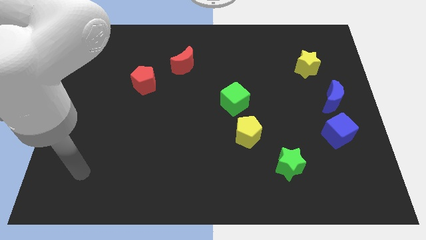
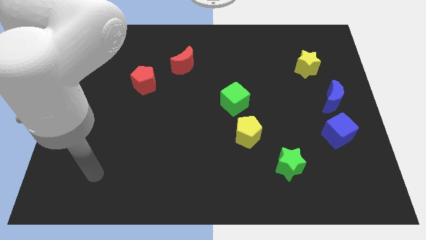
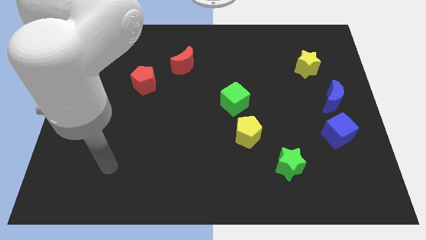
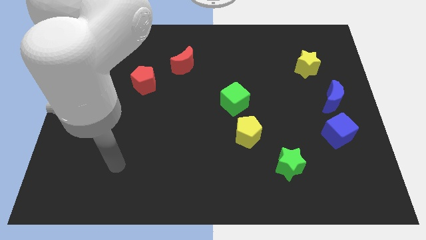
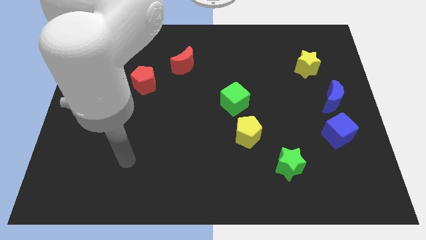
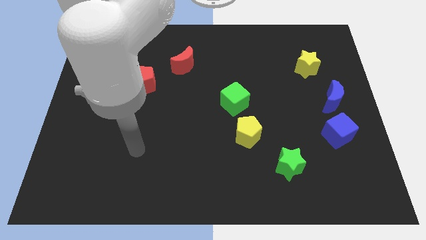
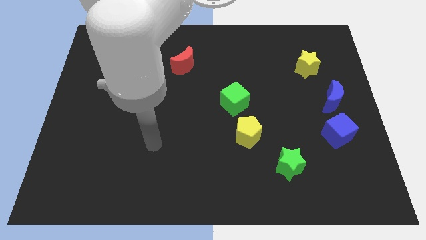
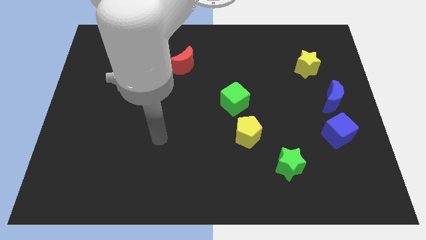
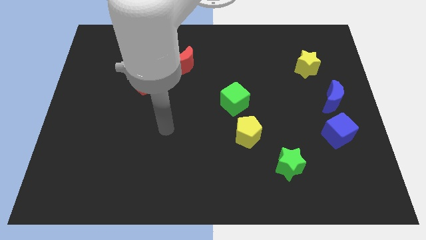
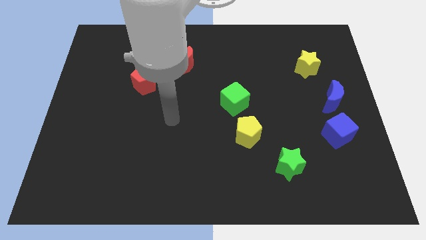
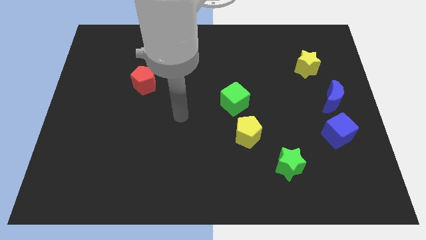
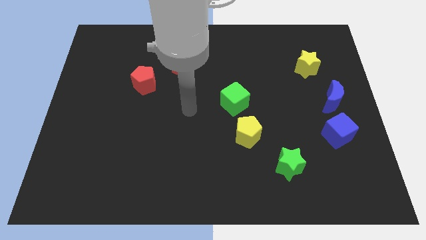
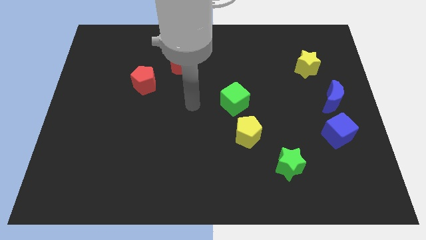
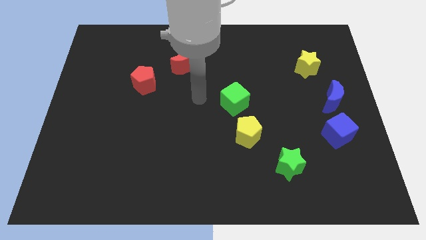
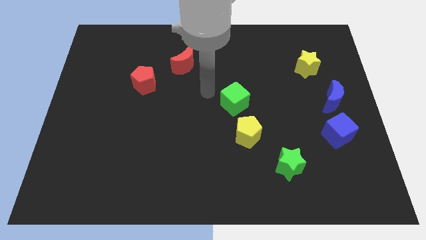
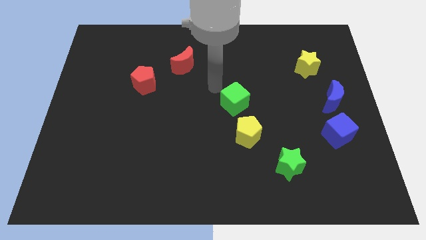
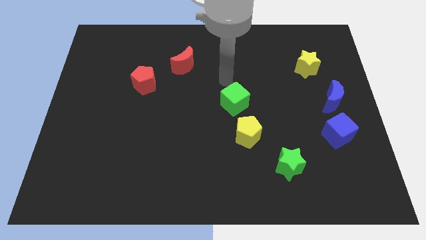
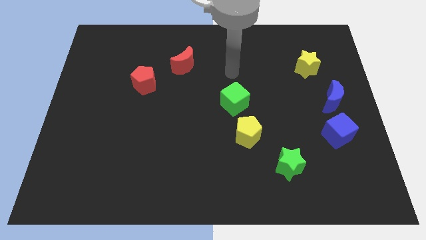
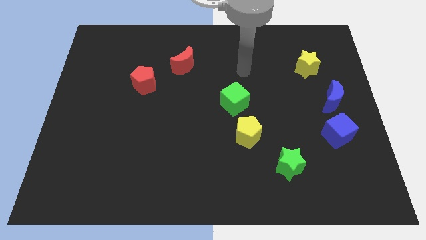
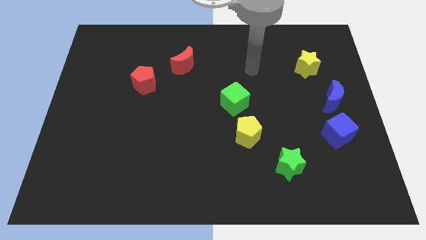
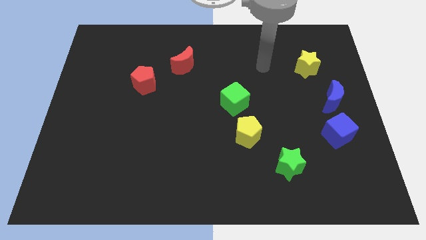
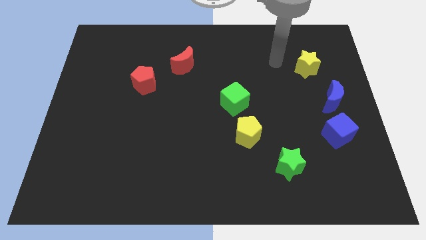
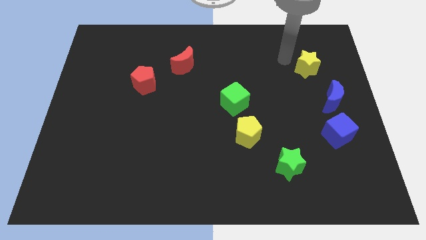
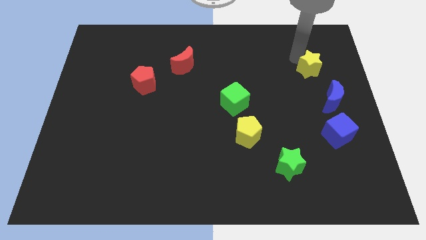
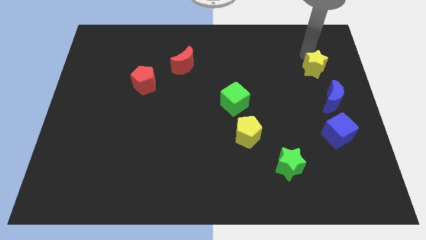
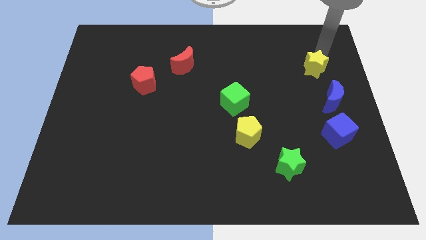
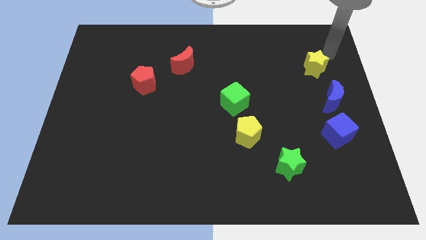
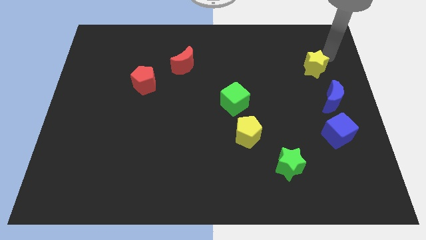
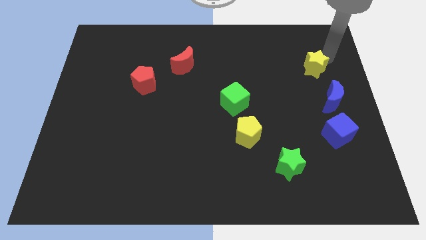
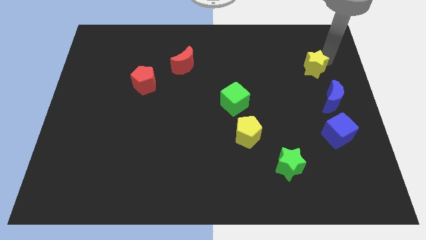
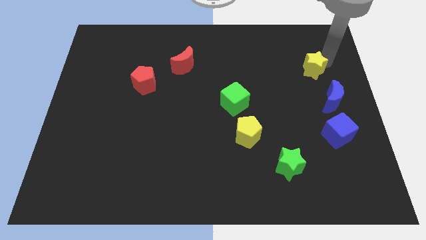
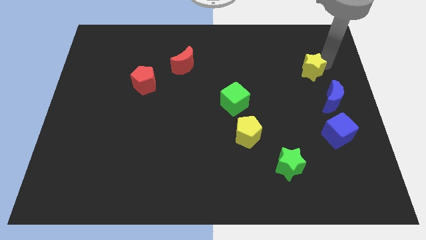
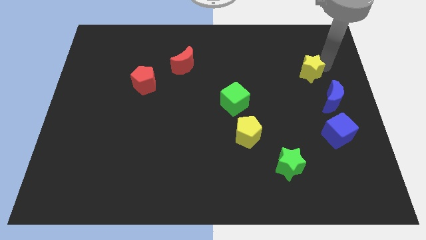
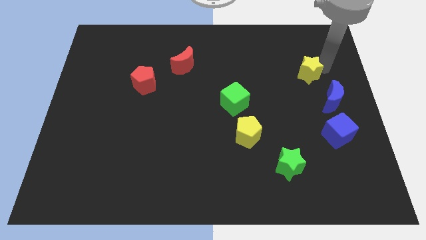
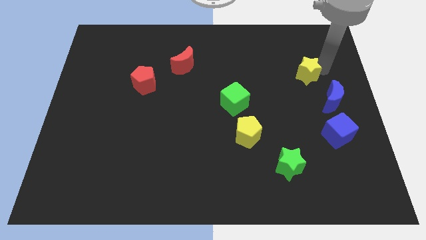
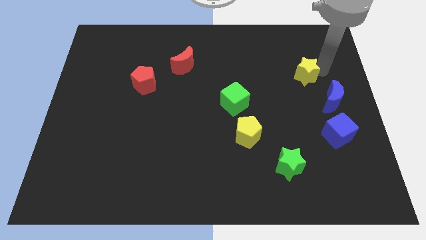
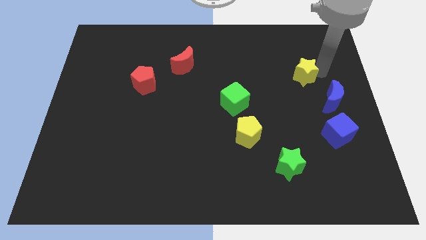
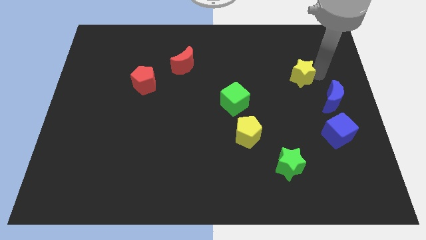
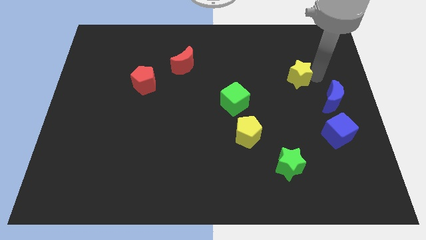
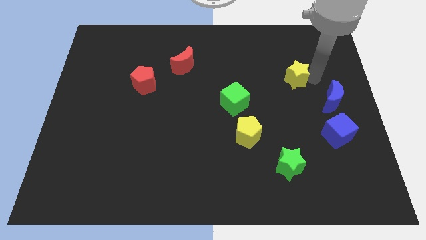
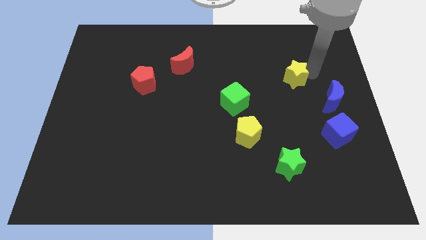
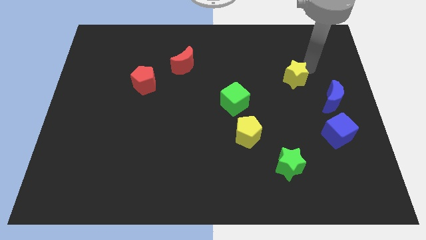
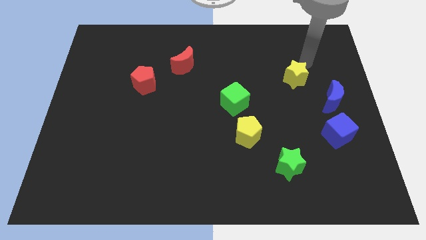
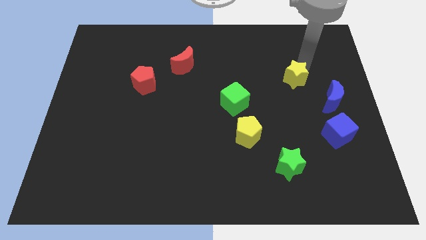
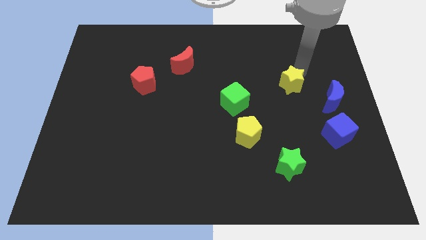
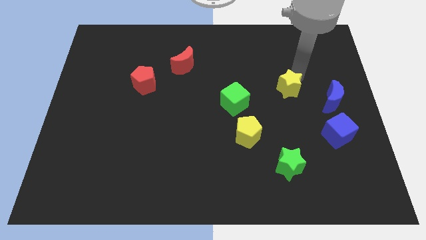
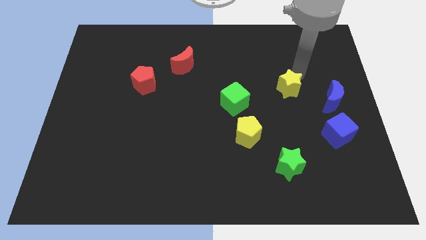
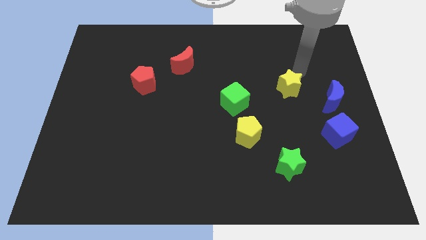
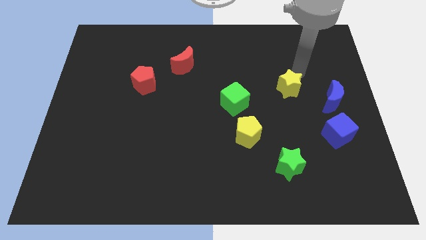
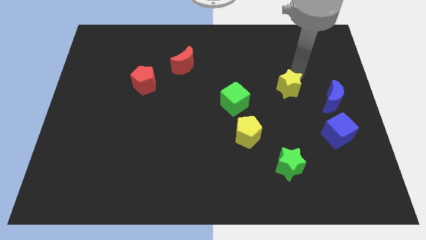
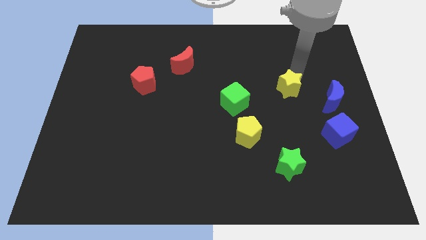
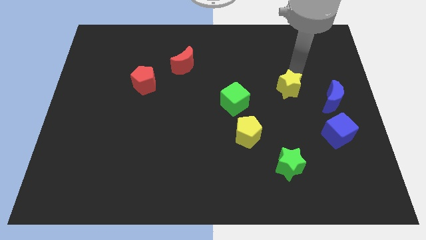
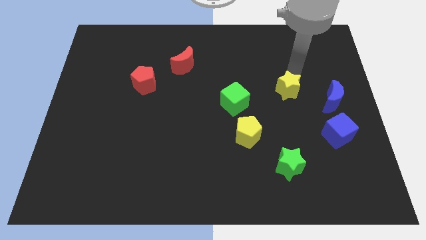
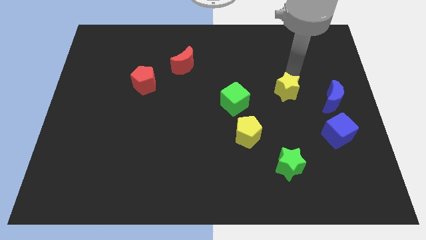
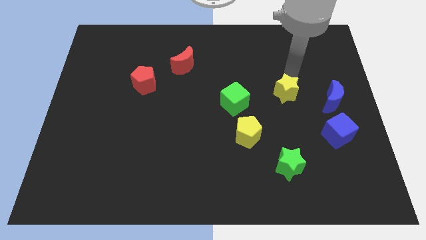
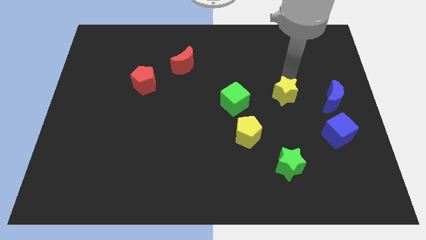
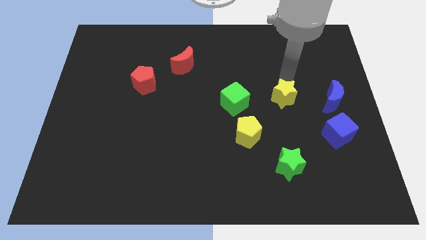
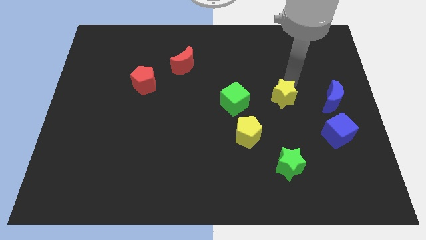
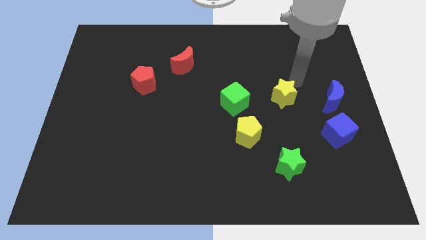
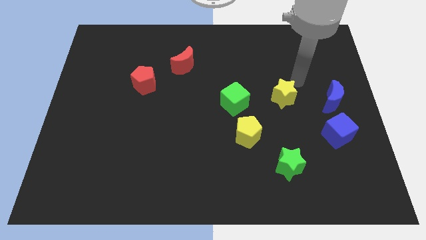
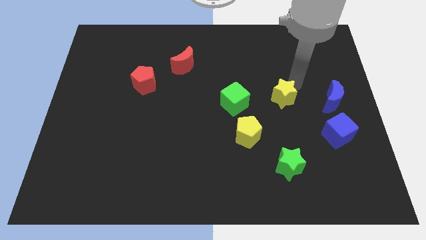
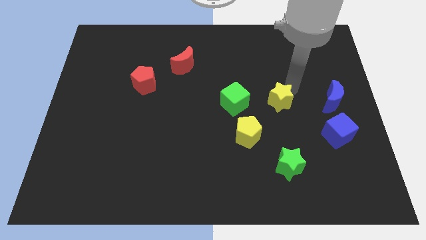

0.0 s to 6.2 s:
move the yellow star diagonally up and to the right of the yellow pentagon
